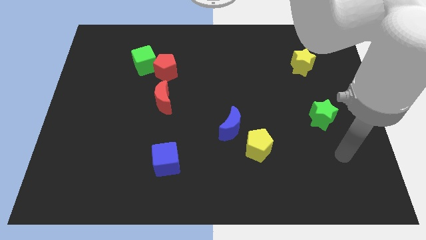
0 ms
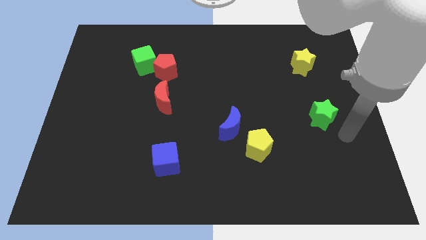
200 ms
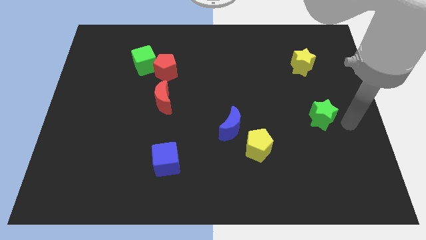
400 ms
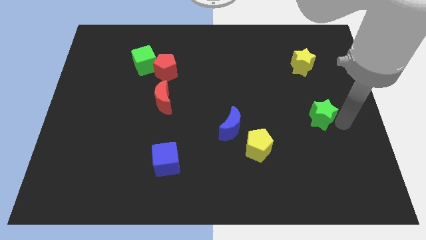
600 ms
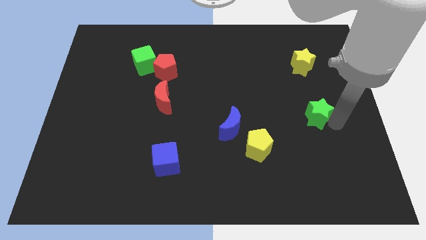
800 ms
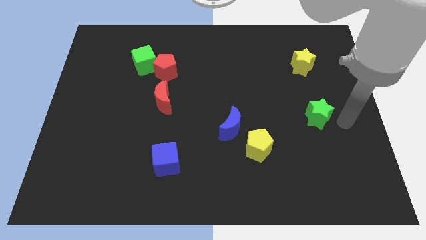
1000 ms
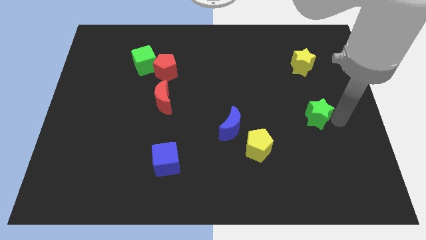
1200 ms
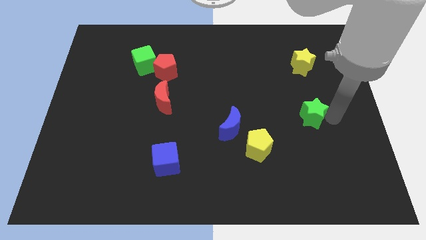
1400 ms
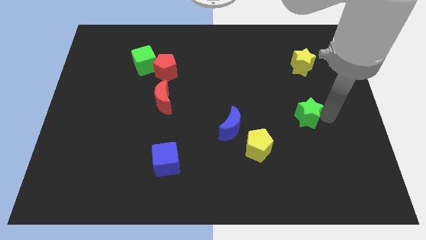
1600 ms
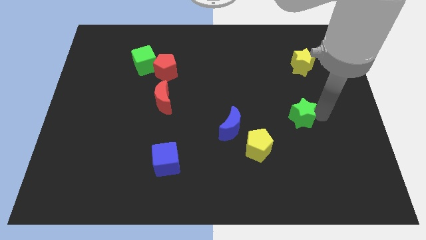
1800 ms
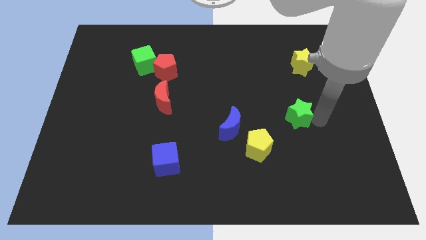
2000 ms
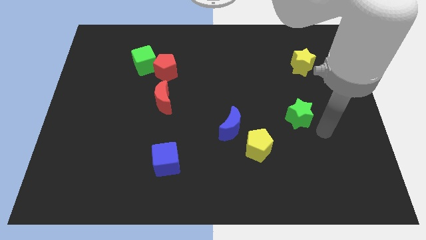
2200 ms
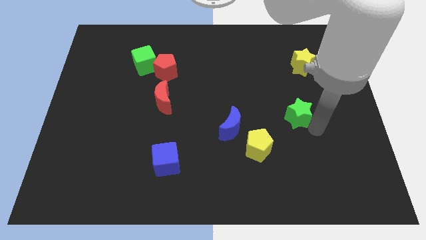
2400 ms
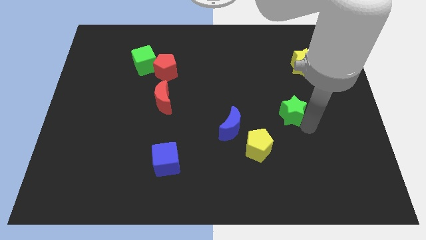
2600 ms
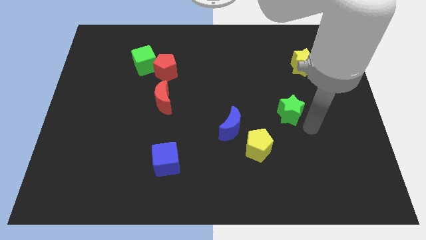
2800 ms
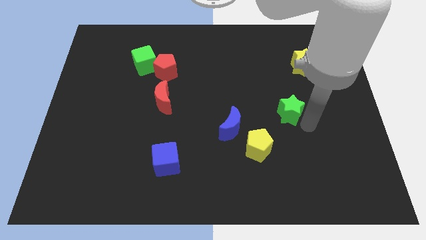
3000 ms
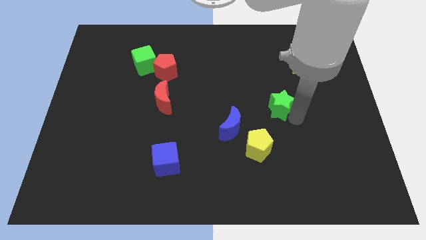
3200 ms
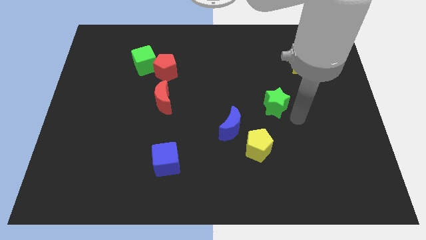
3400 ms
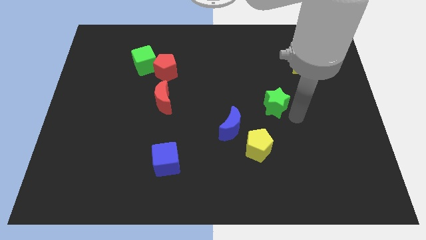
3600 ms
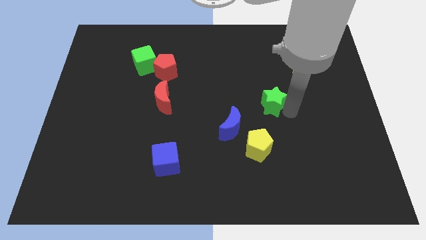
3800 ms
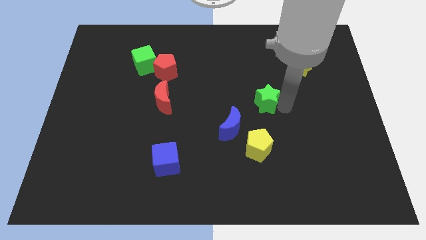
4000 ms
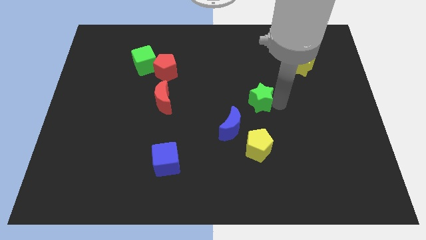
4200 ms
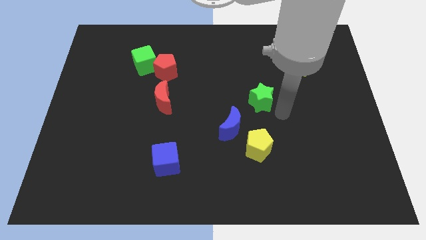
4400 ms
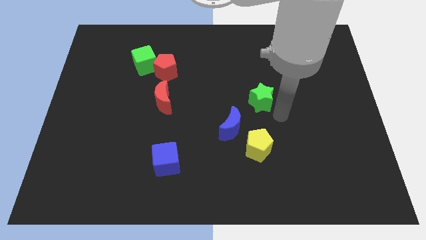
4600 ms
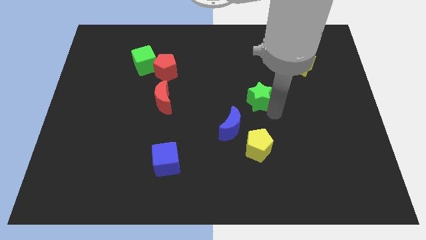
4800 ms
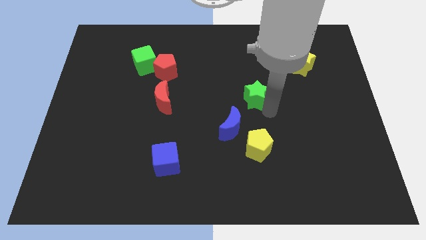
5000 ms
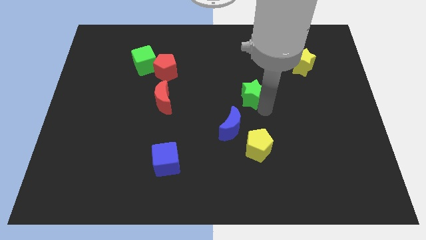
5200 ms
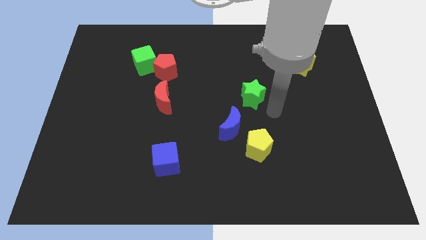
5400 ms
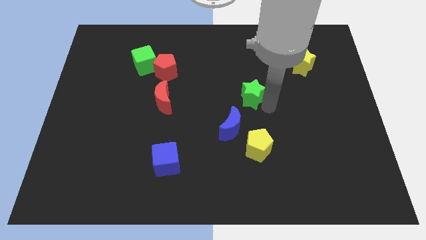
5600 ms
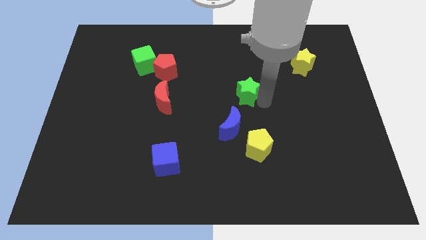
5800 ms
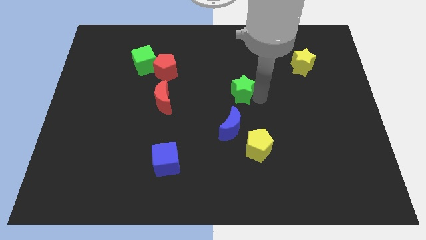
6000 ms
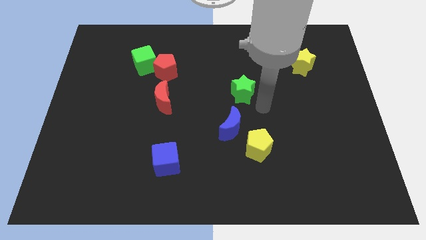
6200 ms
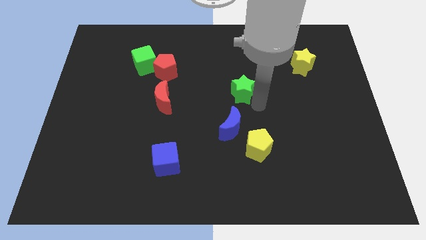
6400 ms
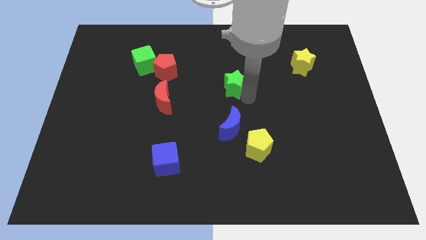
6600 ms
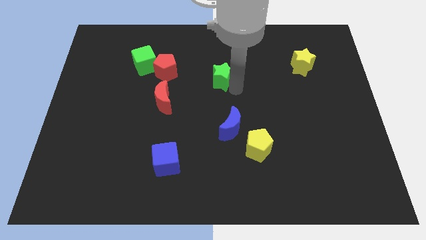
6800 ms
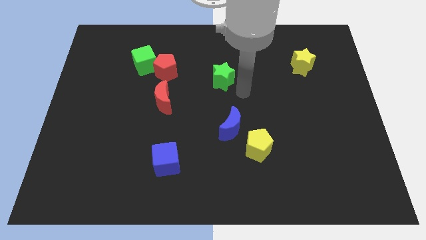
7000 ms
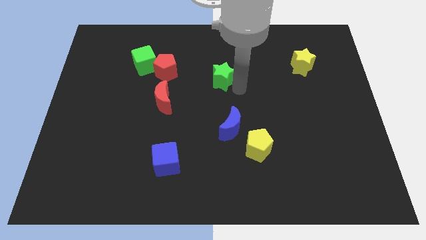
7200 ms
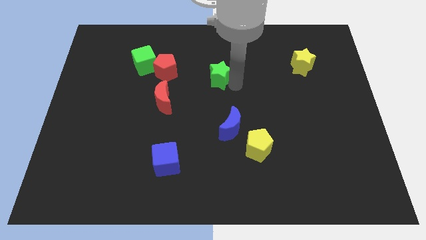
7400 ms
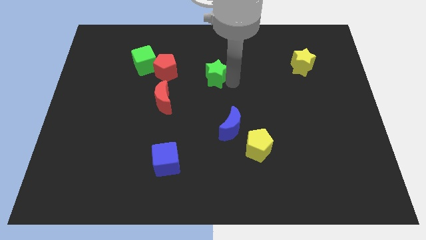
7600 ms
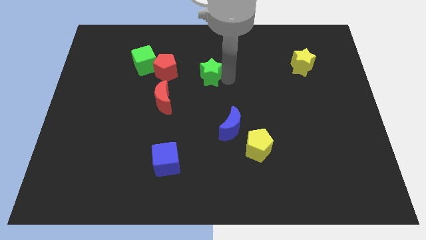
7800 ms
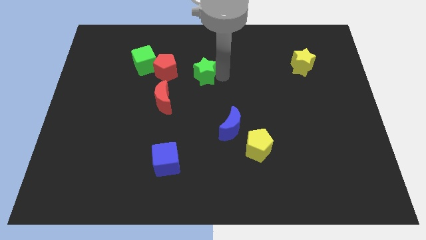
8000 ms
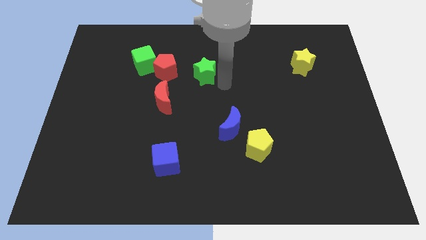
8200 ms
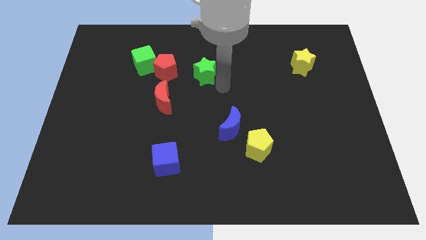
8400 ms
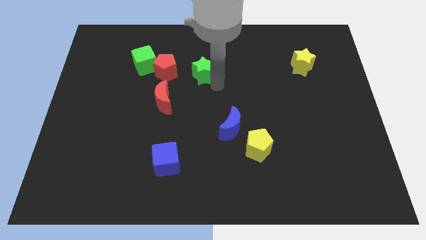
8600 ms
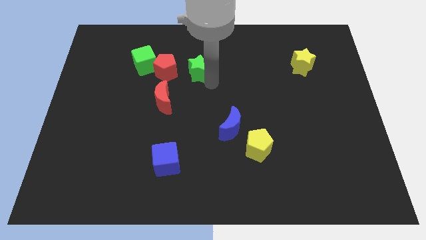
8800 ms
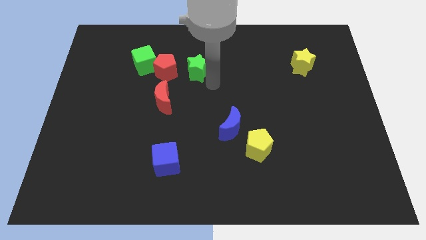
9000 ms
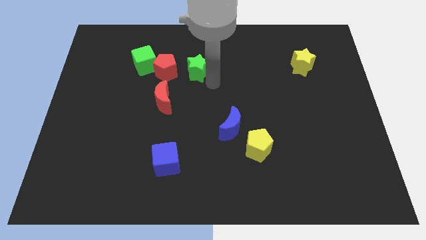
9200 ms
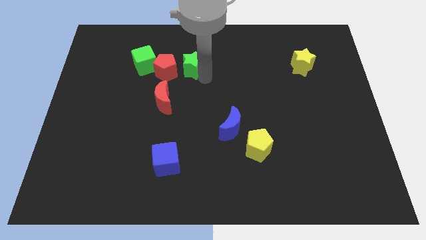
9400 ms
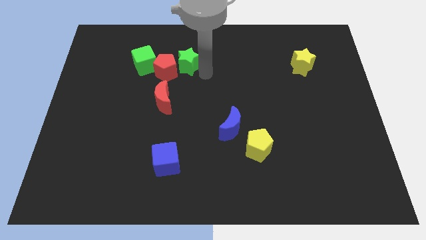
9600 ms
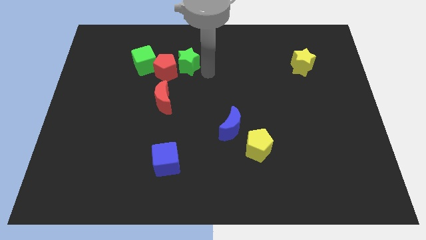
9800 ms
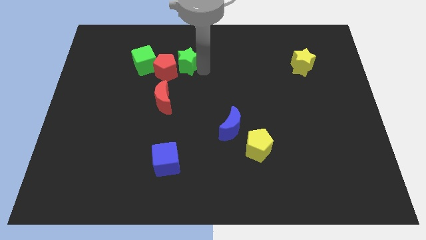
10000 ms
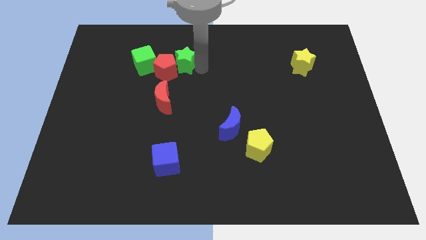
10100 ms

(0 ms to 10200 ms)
slide the green star above the red moon

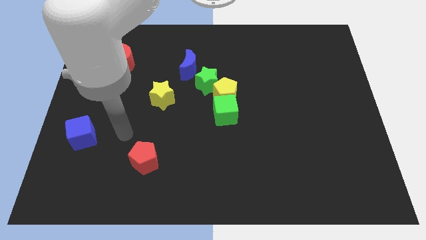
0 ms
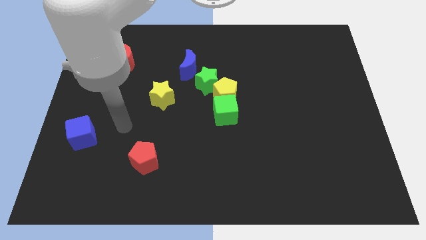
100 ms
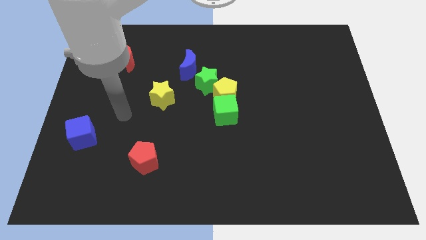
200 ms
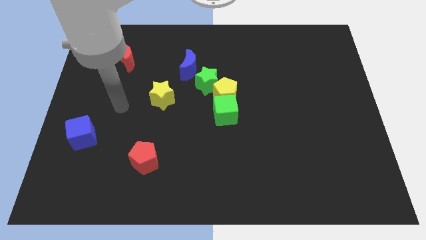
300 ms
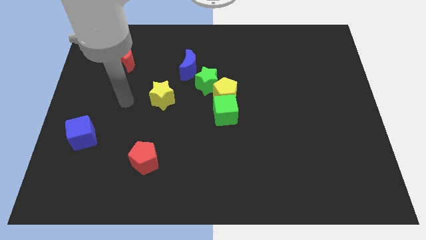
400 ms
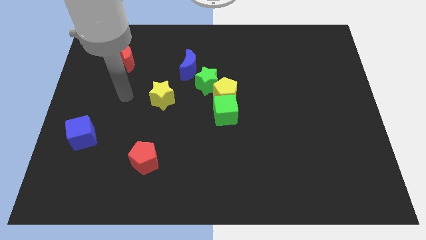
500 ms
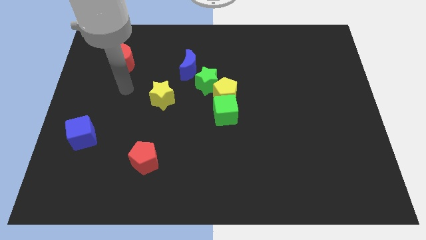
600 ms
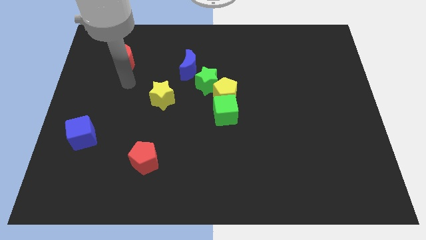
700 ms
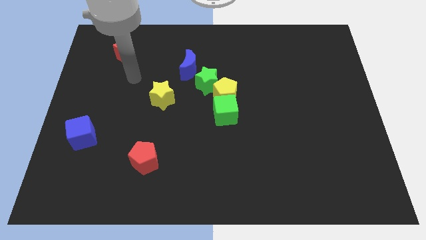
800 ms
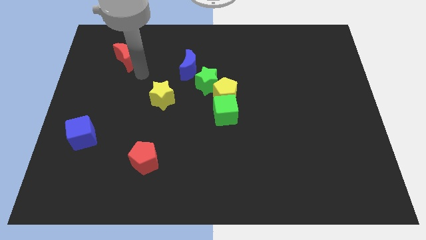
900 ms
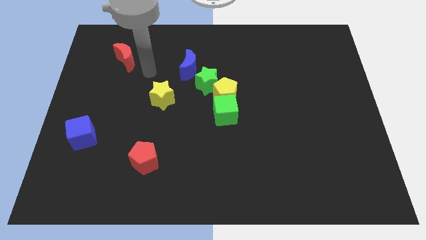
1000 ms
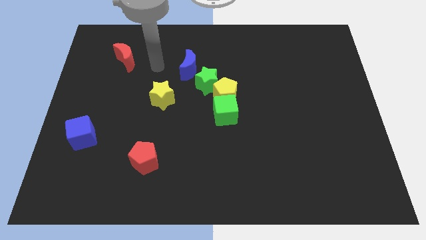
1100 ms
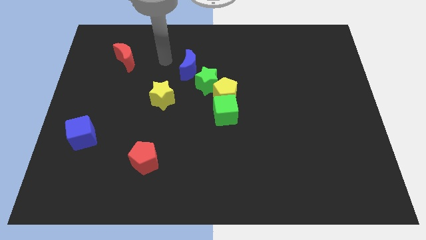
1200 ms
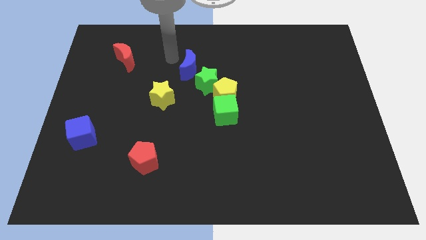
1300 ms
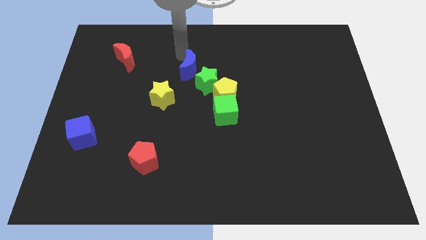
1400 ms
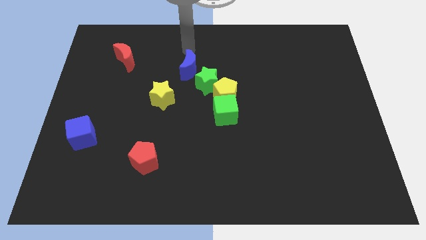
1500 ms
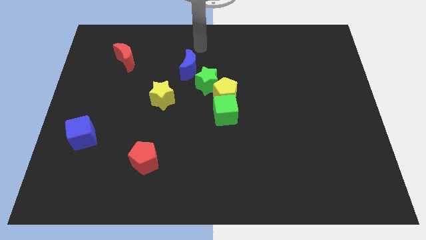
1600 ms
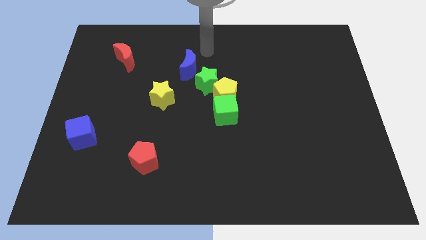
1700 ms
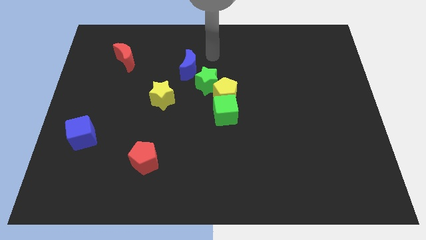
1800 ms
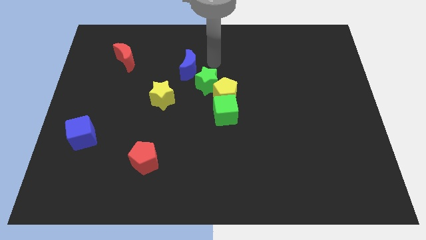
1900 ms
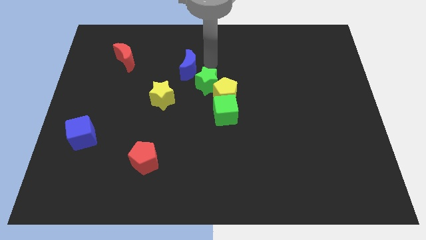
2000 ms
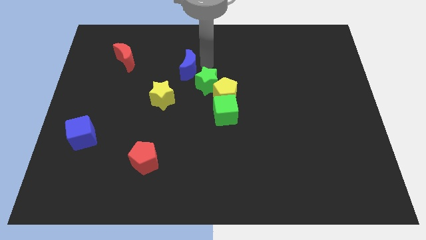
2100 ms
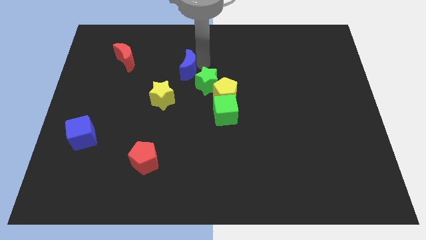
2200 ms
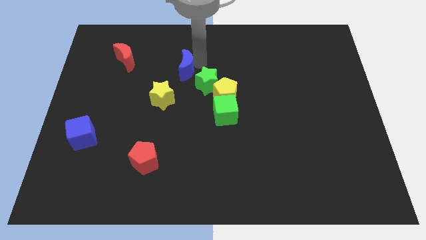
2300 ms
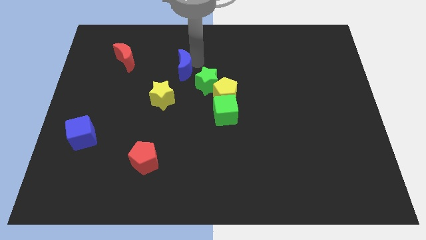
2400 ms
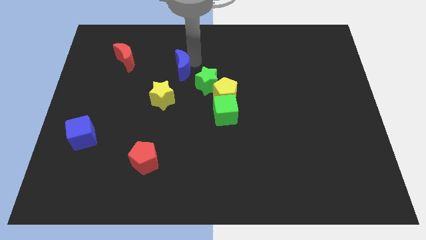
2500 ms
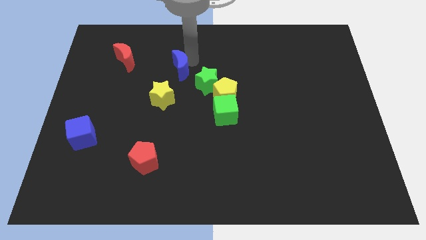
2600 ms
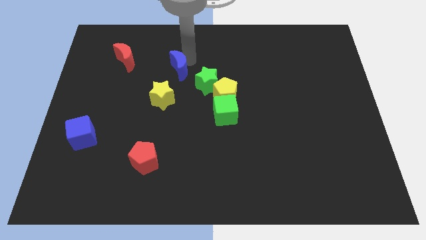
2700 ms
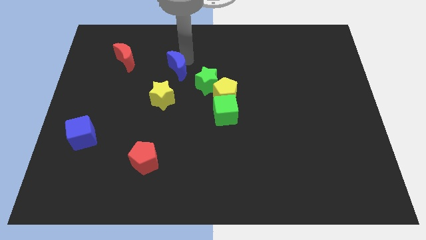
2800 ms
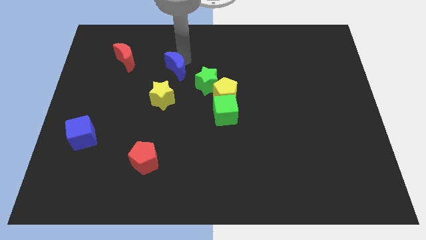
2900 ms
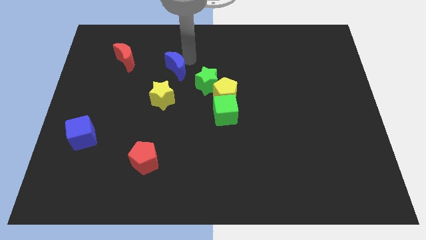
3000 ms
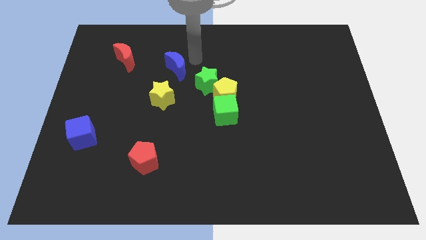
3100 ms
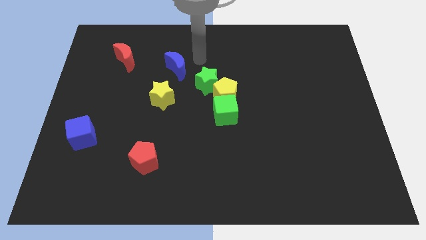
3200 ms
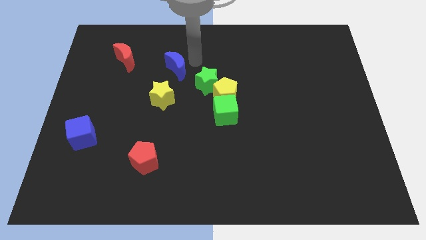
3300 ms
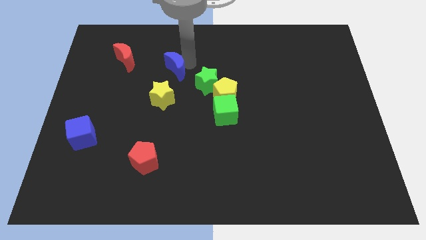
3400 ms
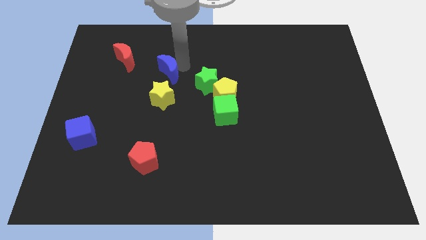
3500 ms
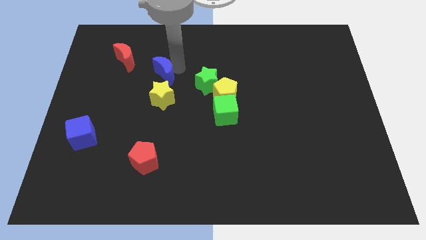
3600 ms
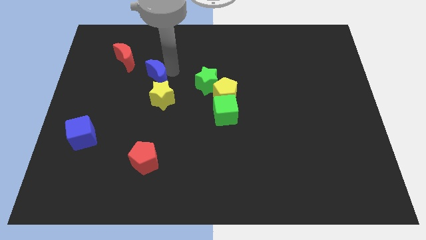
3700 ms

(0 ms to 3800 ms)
move the blue moon to the top left side of the yellow star
